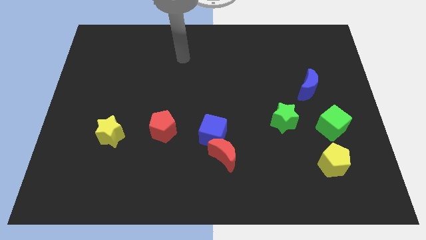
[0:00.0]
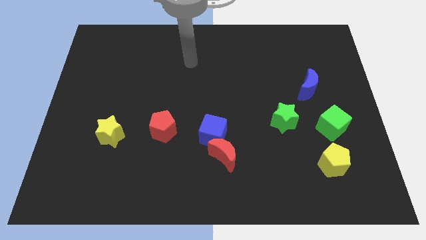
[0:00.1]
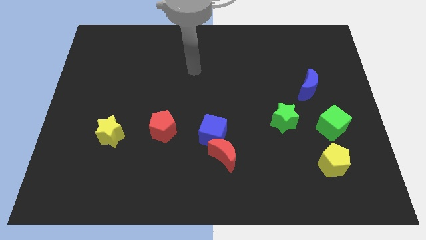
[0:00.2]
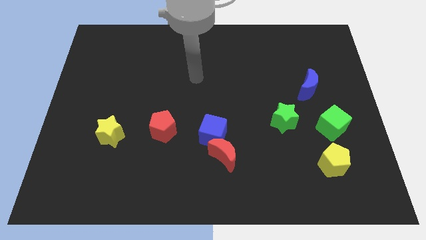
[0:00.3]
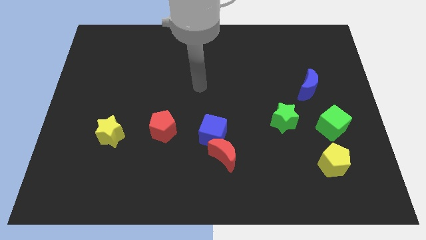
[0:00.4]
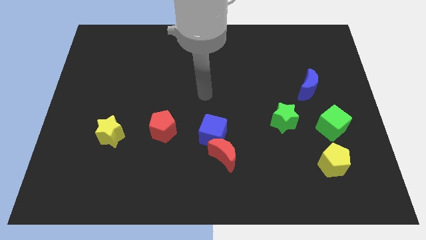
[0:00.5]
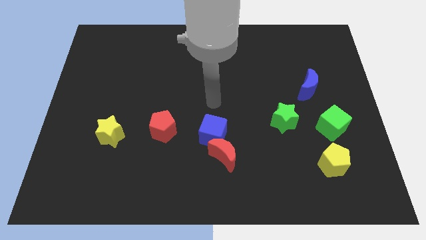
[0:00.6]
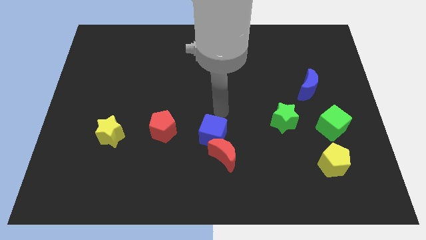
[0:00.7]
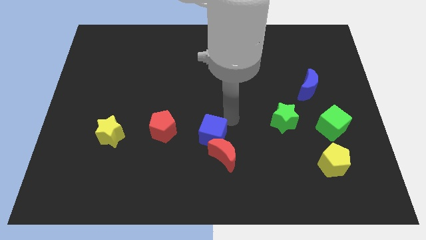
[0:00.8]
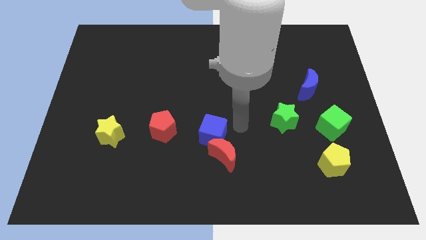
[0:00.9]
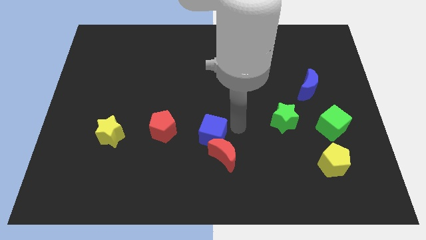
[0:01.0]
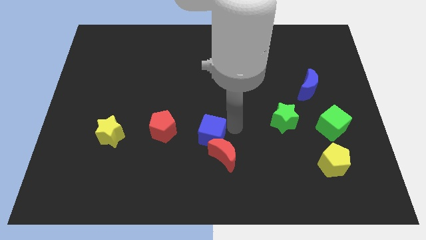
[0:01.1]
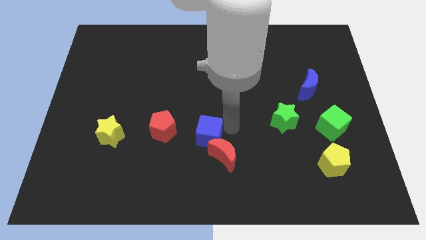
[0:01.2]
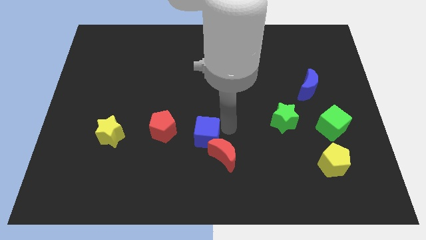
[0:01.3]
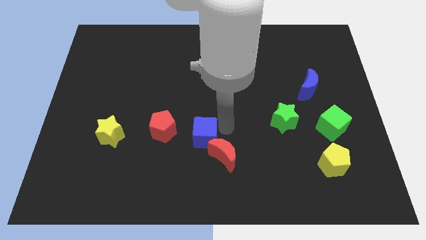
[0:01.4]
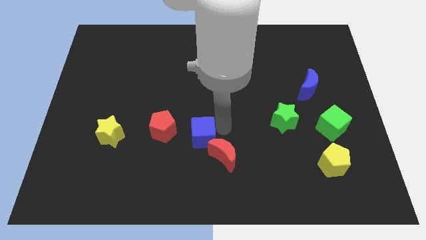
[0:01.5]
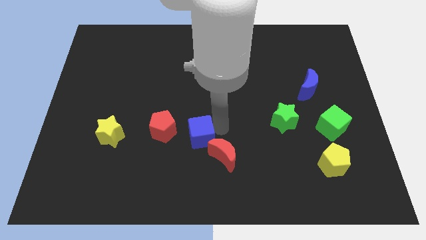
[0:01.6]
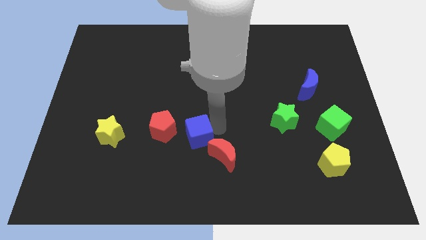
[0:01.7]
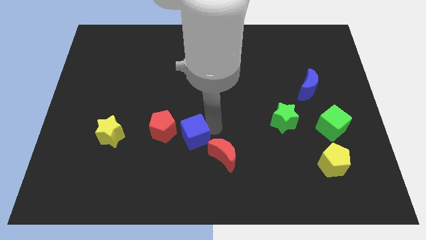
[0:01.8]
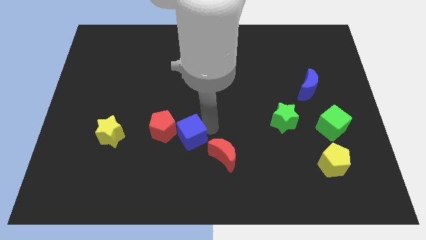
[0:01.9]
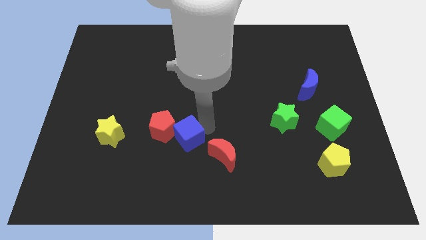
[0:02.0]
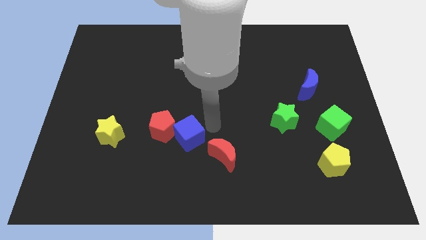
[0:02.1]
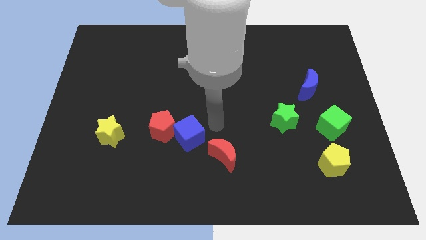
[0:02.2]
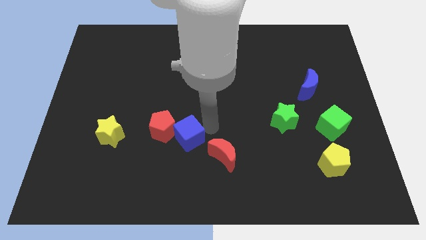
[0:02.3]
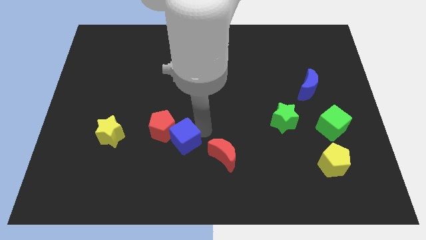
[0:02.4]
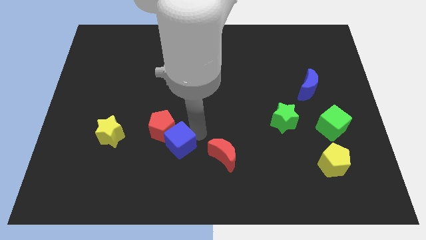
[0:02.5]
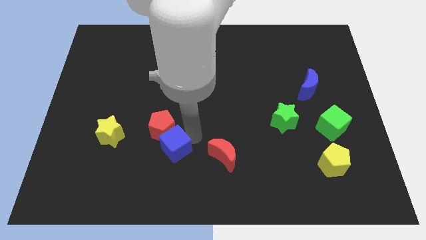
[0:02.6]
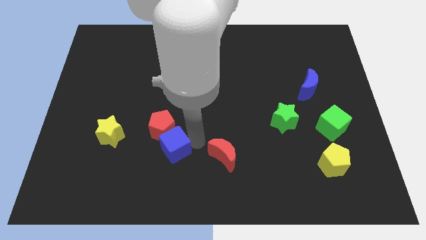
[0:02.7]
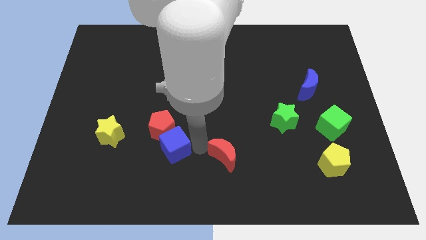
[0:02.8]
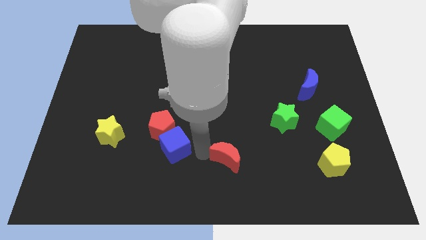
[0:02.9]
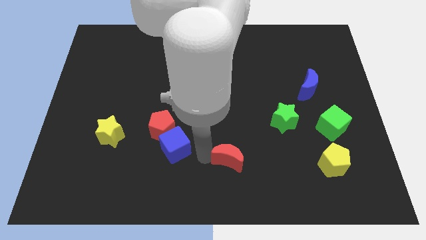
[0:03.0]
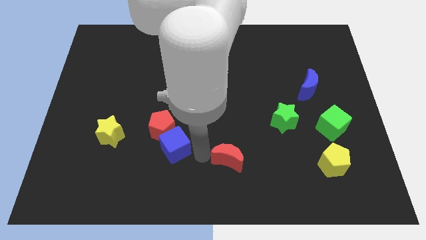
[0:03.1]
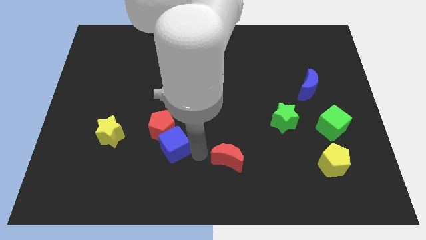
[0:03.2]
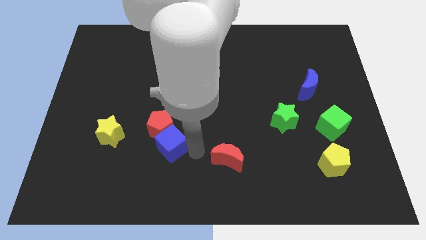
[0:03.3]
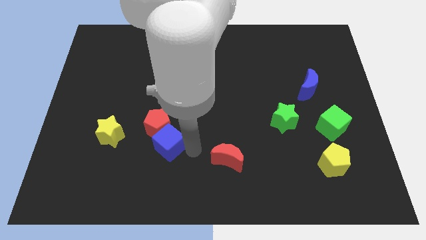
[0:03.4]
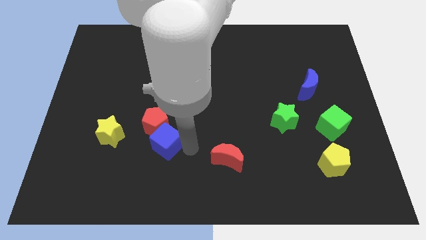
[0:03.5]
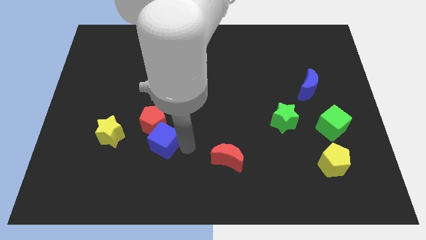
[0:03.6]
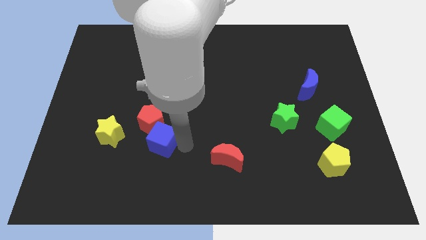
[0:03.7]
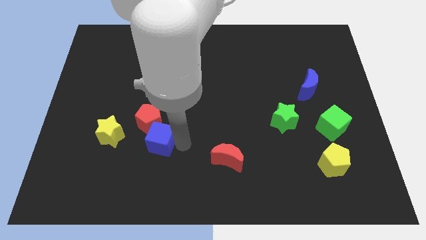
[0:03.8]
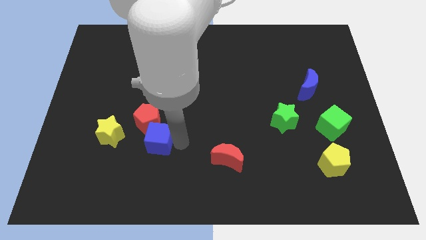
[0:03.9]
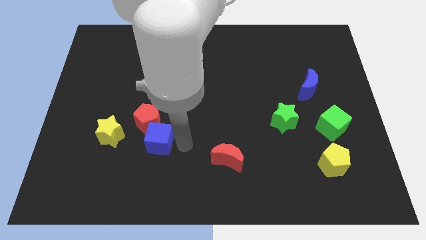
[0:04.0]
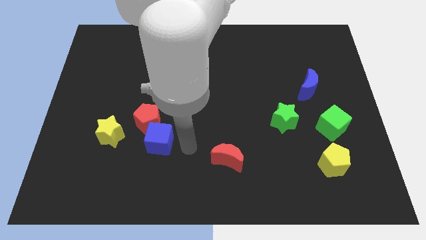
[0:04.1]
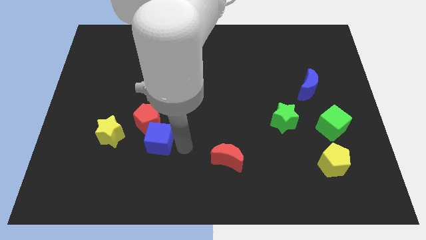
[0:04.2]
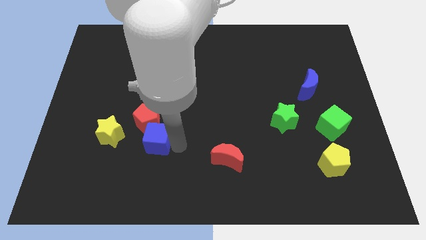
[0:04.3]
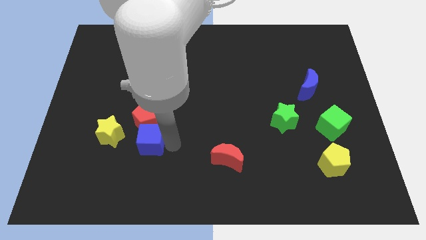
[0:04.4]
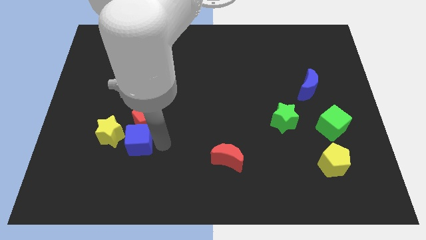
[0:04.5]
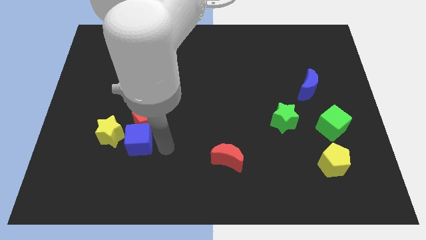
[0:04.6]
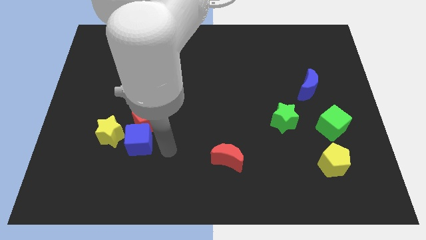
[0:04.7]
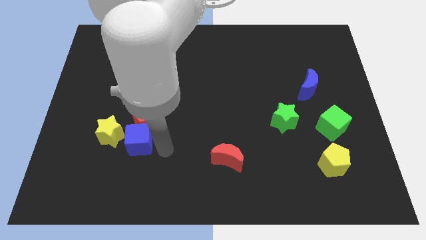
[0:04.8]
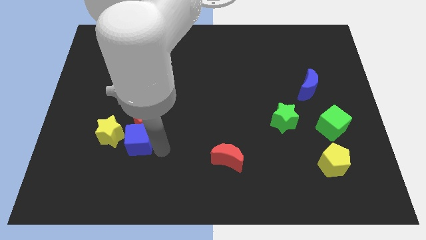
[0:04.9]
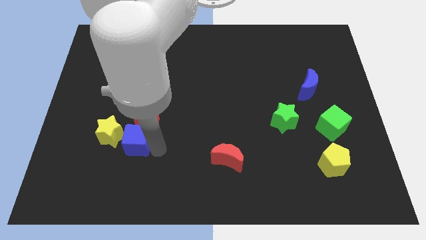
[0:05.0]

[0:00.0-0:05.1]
put the blue cube close to the yellow star

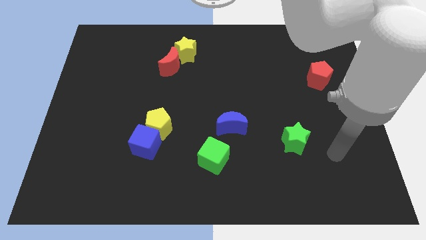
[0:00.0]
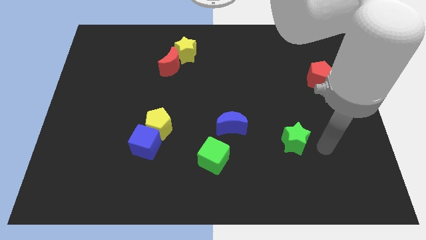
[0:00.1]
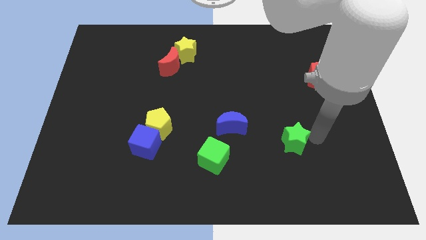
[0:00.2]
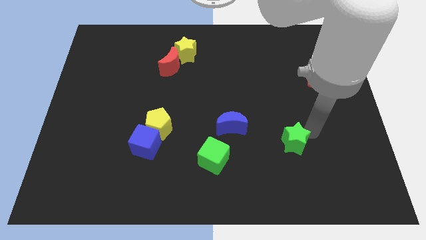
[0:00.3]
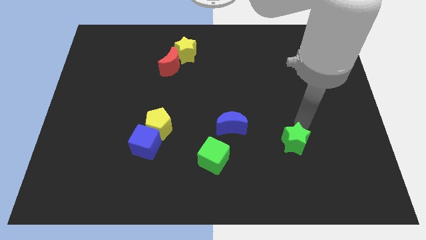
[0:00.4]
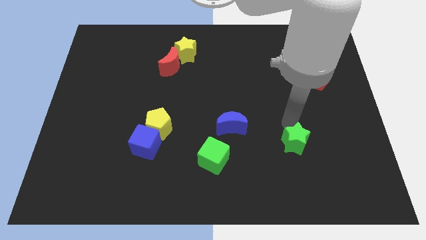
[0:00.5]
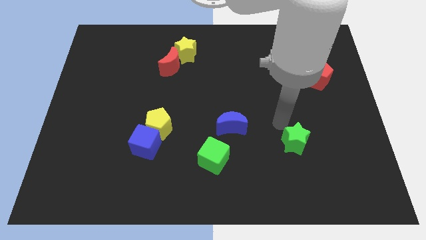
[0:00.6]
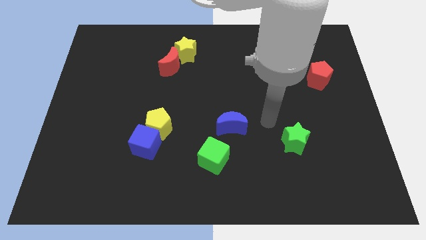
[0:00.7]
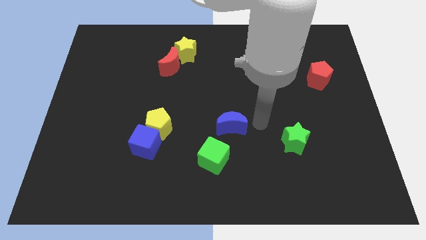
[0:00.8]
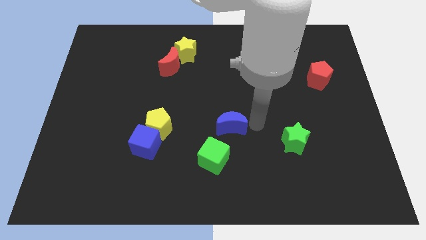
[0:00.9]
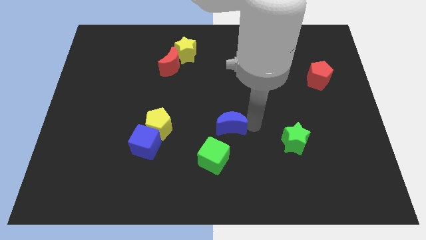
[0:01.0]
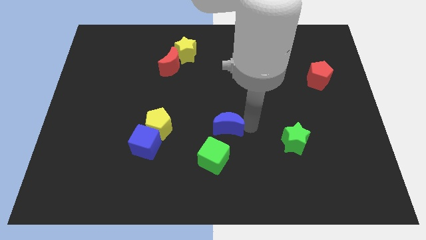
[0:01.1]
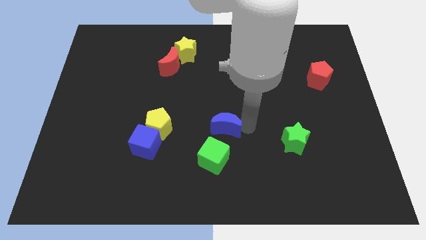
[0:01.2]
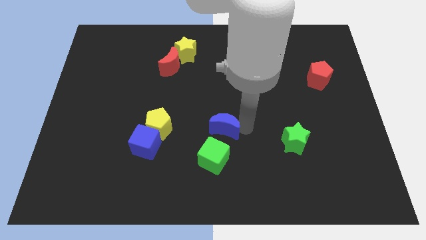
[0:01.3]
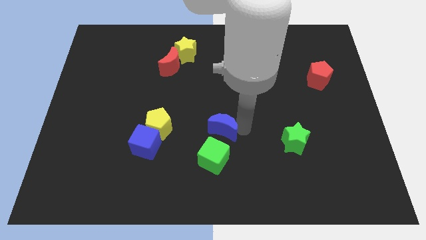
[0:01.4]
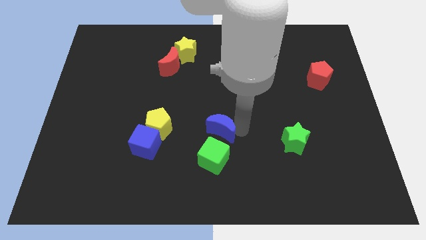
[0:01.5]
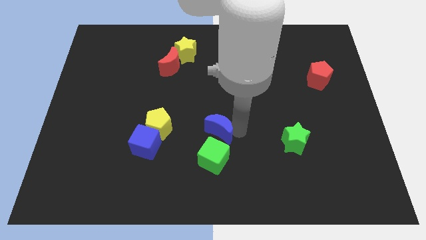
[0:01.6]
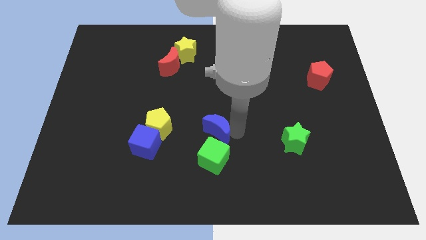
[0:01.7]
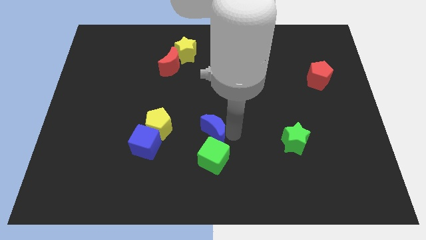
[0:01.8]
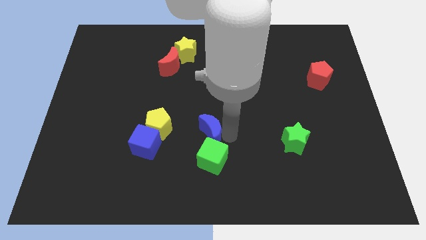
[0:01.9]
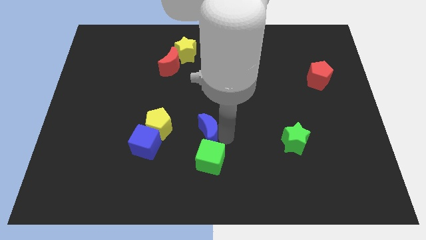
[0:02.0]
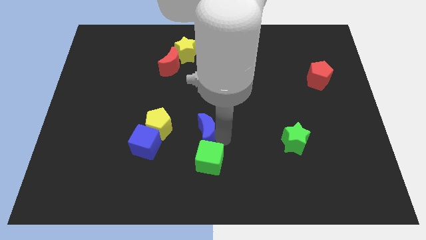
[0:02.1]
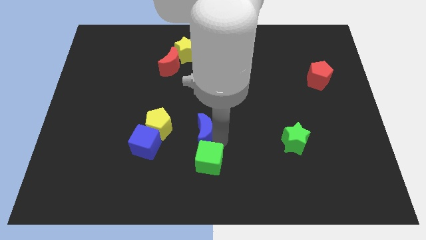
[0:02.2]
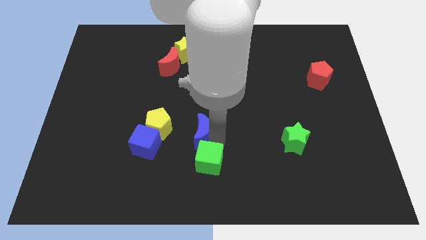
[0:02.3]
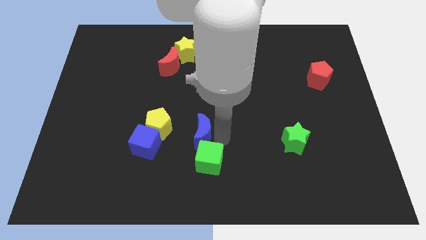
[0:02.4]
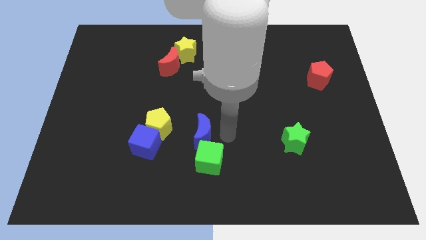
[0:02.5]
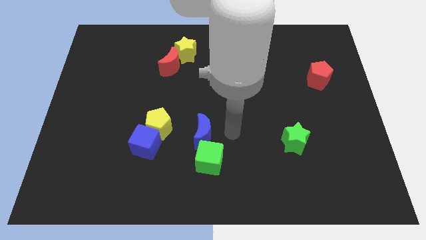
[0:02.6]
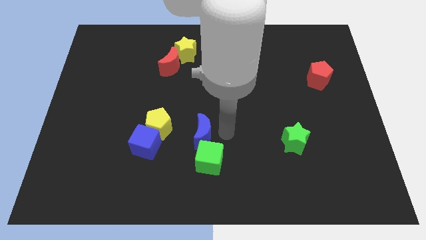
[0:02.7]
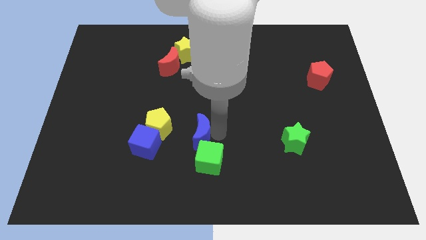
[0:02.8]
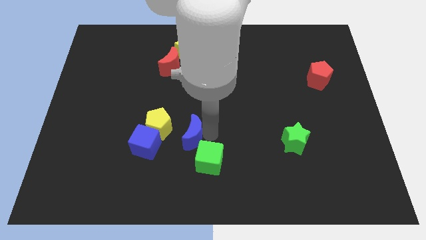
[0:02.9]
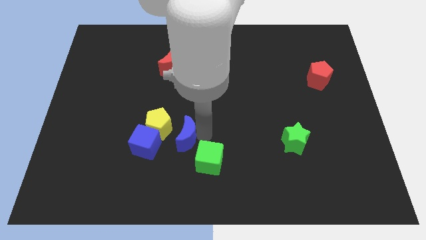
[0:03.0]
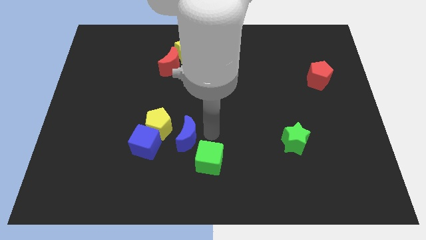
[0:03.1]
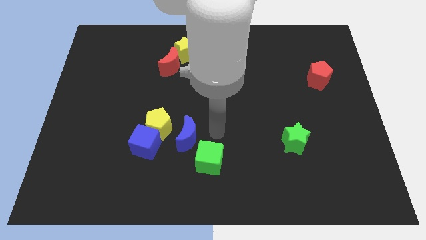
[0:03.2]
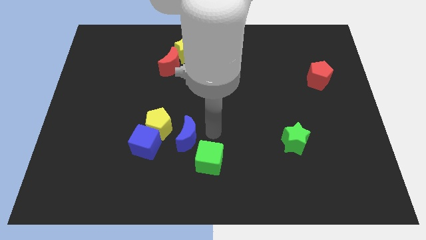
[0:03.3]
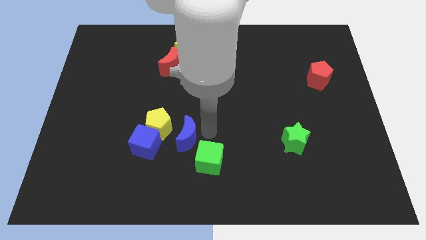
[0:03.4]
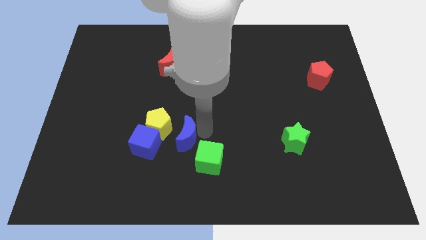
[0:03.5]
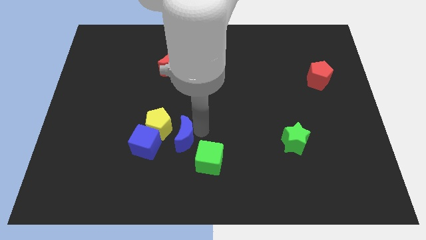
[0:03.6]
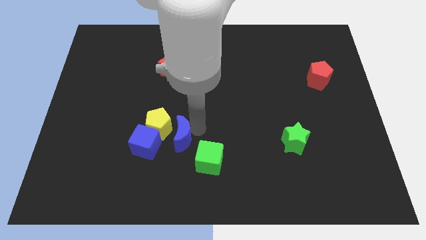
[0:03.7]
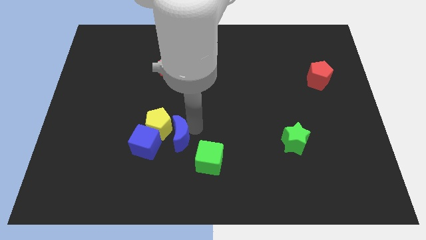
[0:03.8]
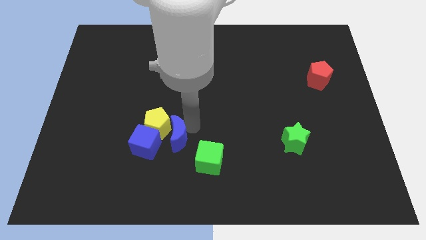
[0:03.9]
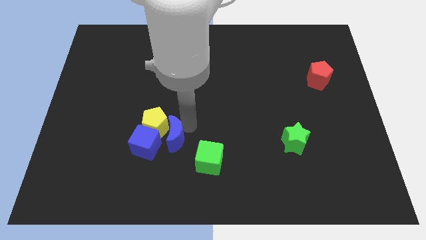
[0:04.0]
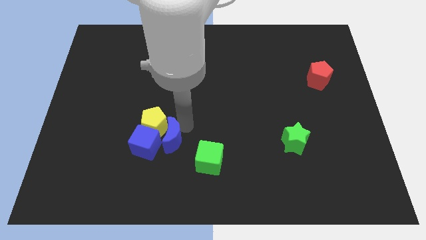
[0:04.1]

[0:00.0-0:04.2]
put the blue moon to the blue cube
